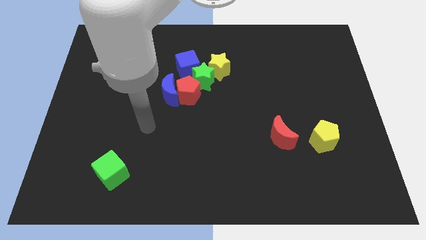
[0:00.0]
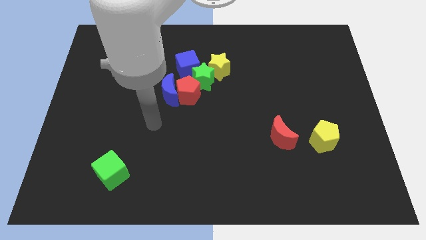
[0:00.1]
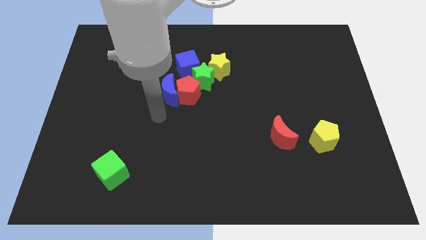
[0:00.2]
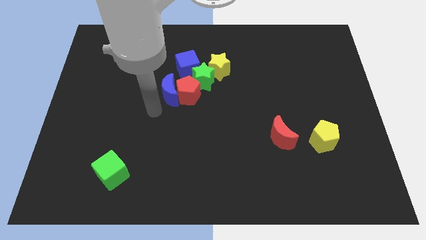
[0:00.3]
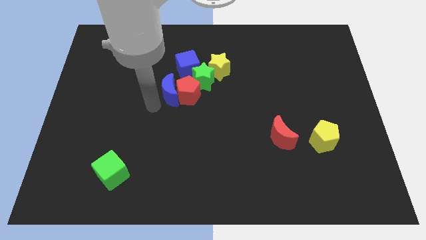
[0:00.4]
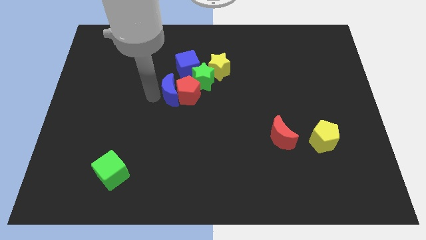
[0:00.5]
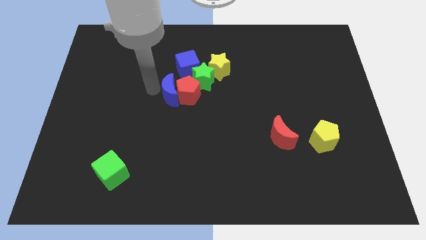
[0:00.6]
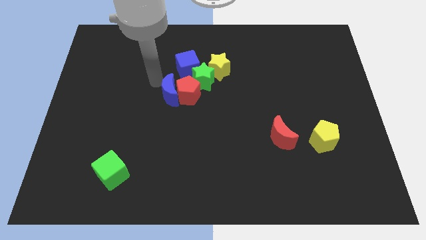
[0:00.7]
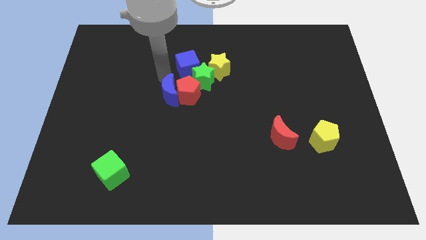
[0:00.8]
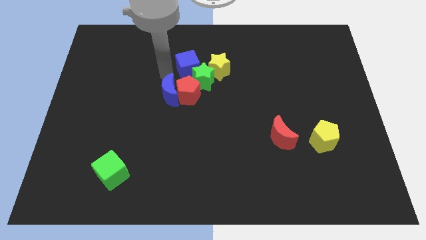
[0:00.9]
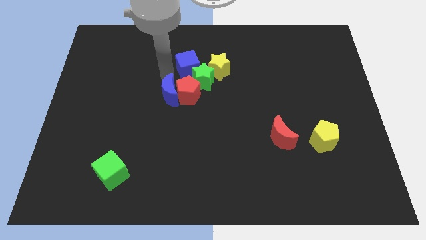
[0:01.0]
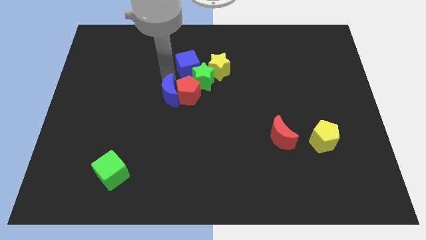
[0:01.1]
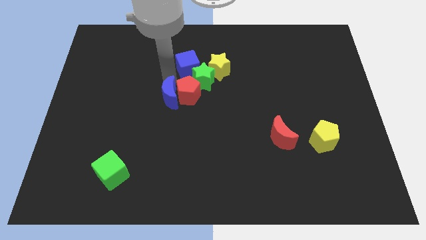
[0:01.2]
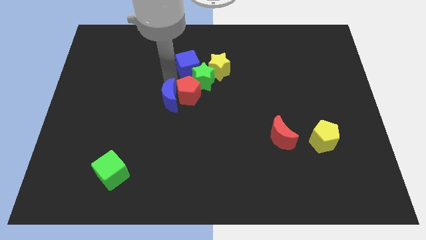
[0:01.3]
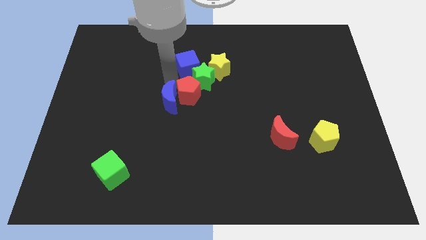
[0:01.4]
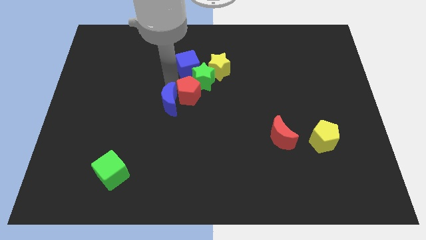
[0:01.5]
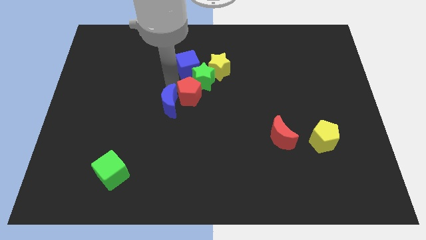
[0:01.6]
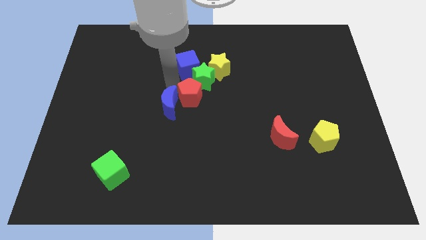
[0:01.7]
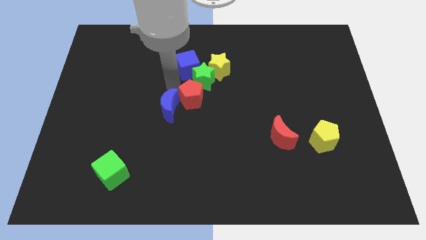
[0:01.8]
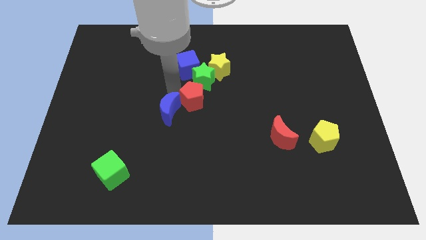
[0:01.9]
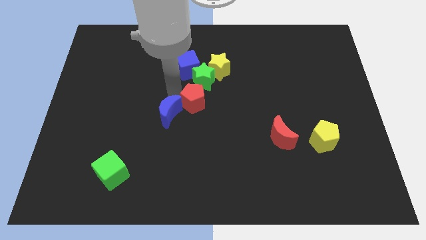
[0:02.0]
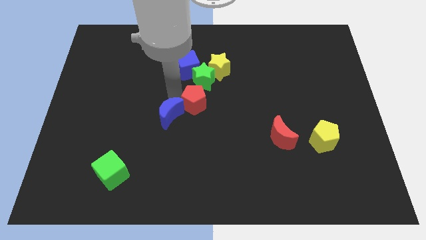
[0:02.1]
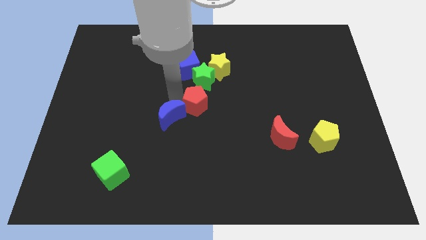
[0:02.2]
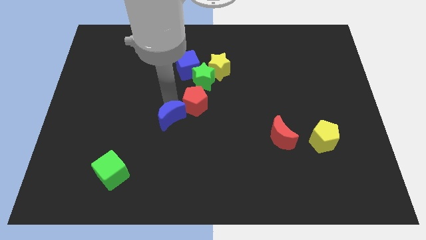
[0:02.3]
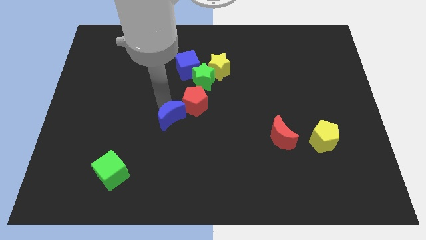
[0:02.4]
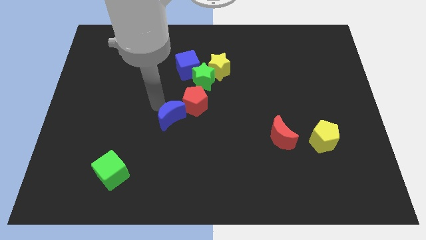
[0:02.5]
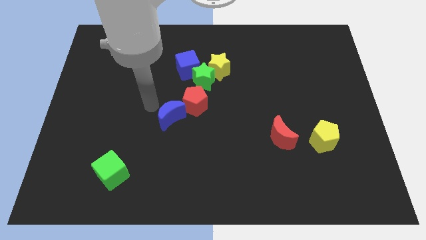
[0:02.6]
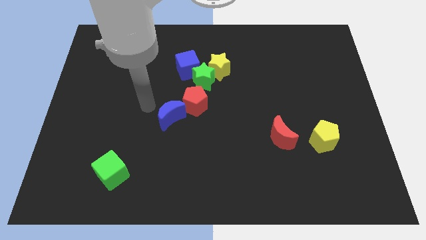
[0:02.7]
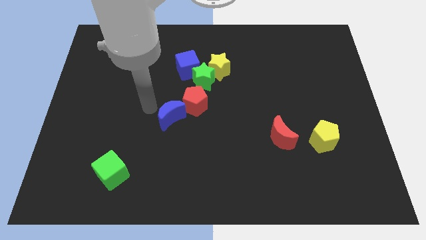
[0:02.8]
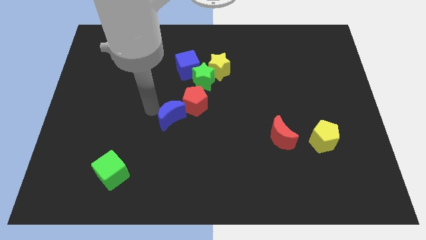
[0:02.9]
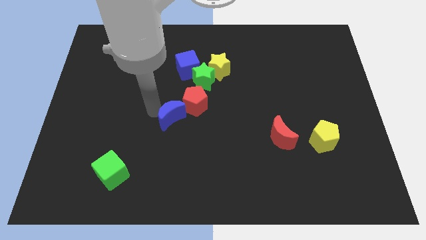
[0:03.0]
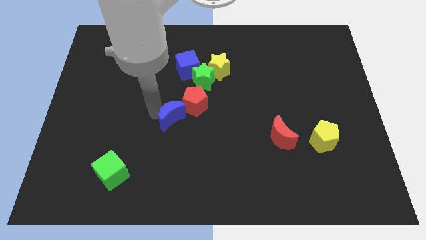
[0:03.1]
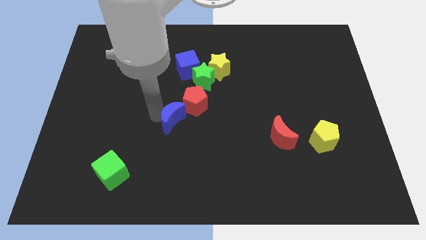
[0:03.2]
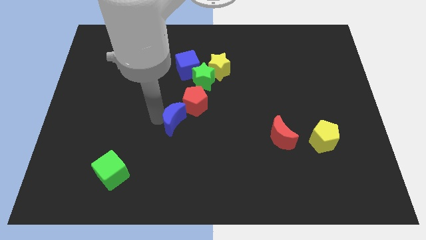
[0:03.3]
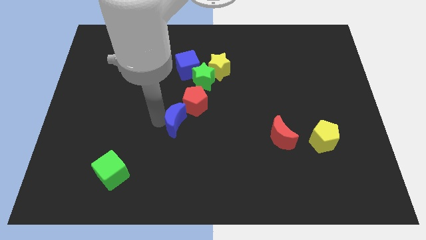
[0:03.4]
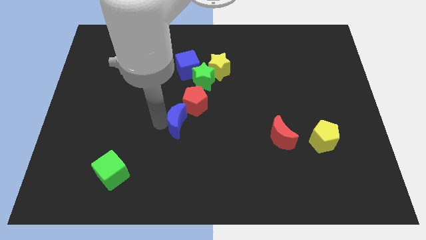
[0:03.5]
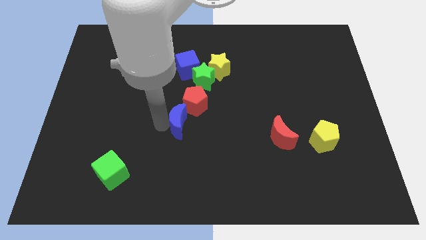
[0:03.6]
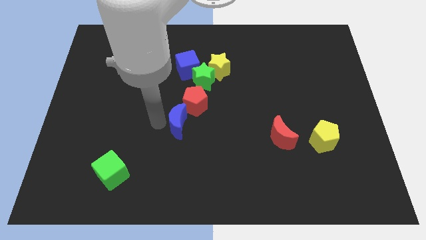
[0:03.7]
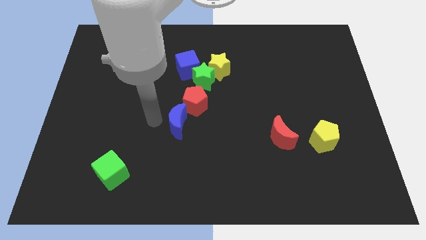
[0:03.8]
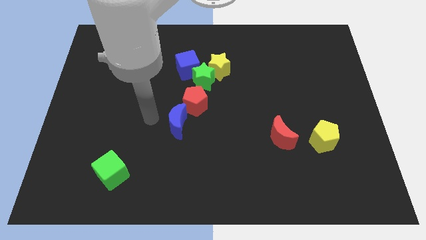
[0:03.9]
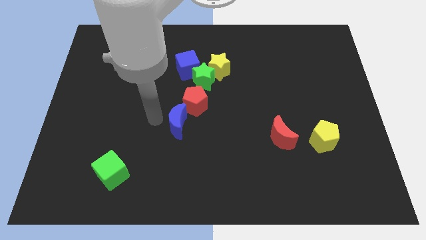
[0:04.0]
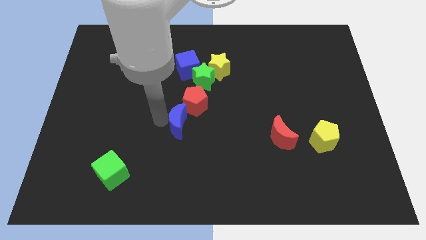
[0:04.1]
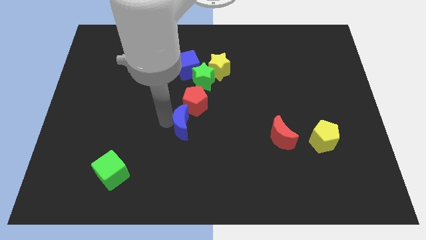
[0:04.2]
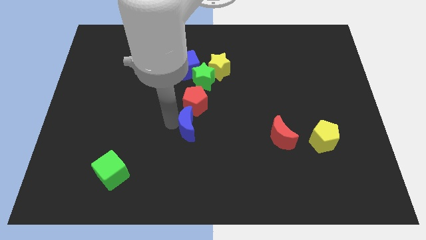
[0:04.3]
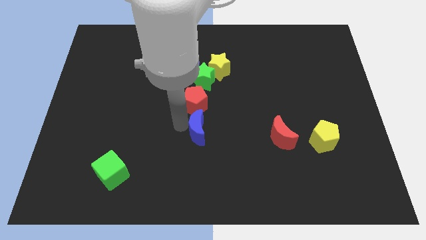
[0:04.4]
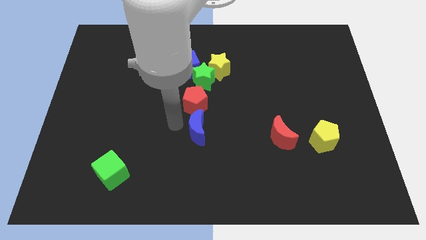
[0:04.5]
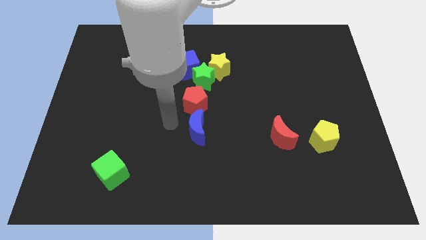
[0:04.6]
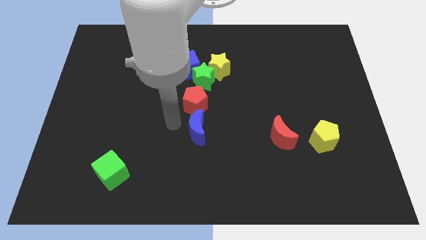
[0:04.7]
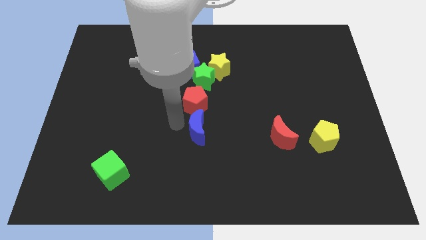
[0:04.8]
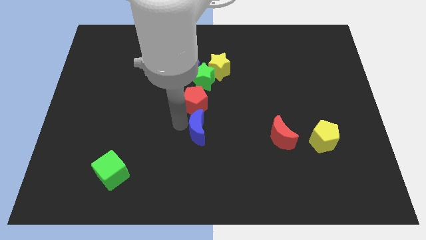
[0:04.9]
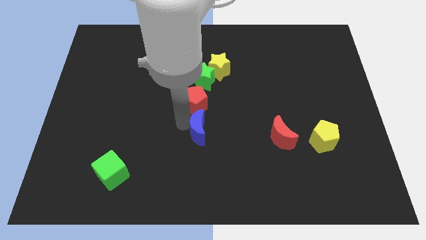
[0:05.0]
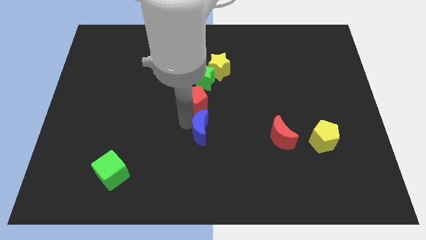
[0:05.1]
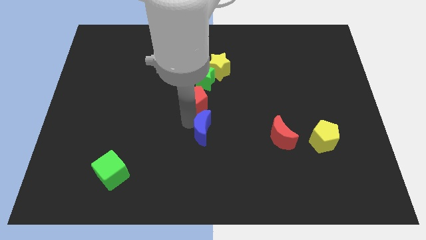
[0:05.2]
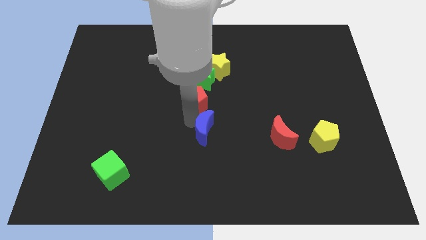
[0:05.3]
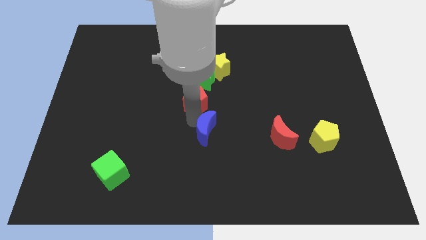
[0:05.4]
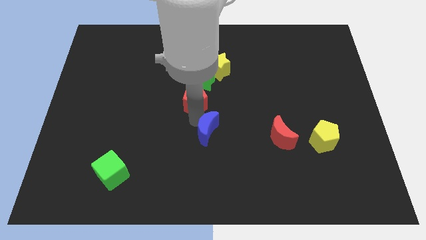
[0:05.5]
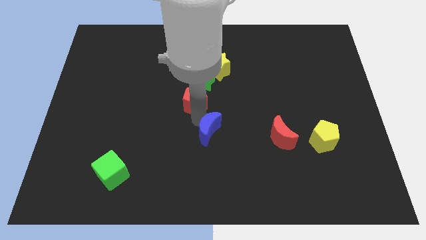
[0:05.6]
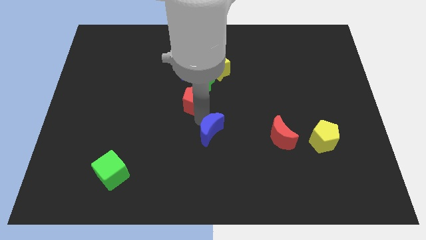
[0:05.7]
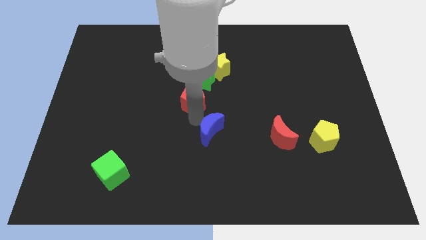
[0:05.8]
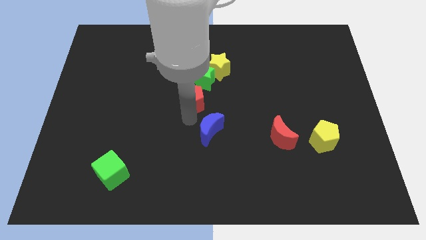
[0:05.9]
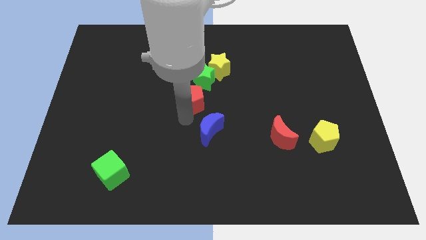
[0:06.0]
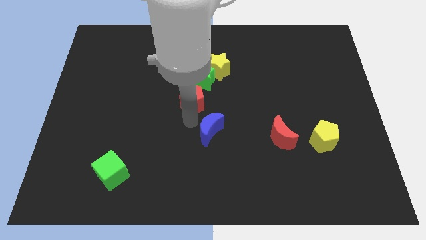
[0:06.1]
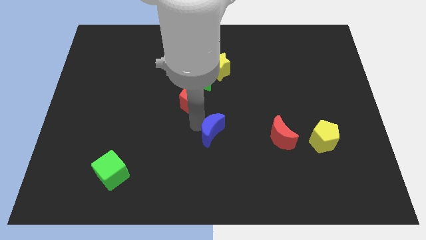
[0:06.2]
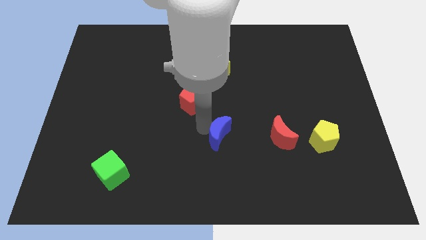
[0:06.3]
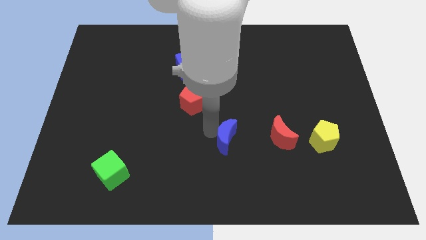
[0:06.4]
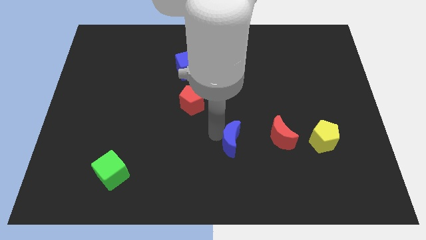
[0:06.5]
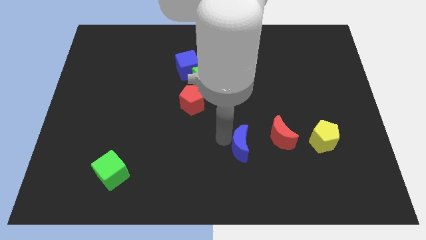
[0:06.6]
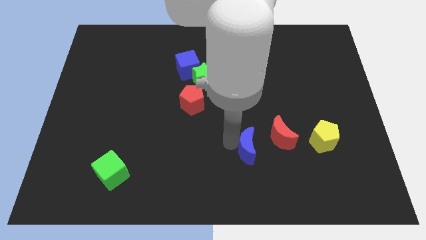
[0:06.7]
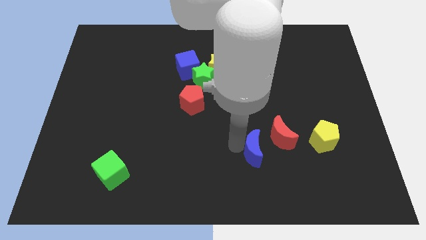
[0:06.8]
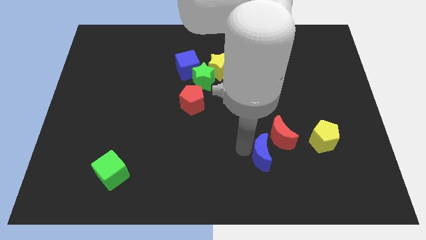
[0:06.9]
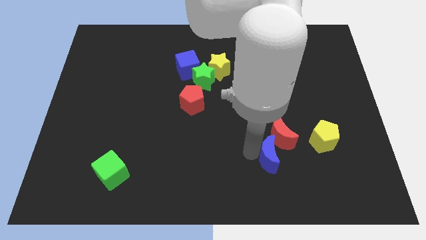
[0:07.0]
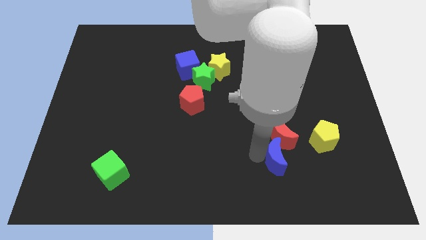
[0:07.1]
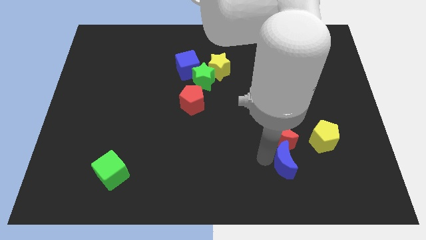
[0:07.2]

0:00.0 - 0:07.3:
push the blue moon diagonally down and to the left of the yellow pentagon

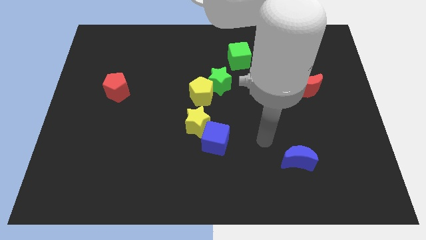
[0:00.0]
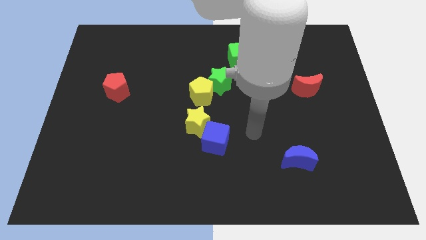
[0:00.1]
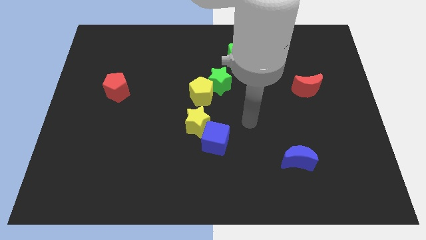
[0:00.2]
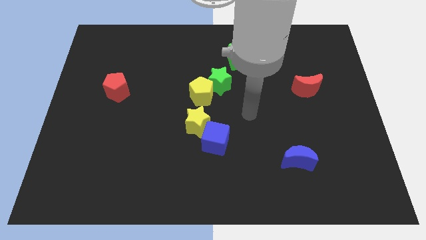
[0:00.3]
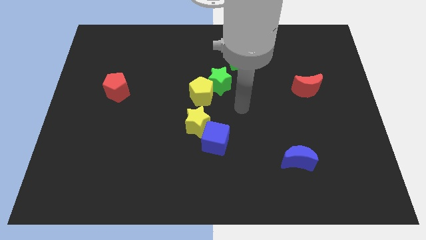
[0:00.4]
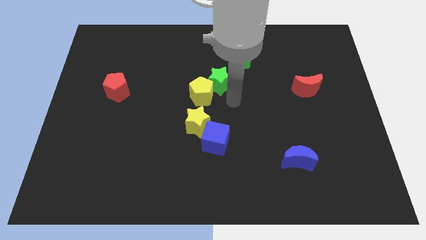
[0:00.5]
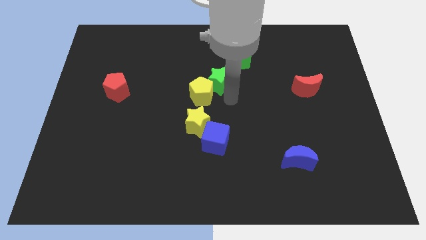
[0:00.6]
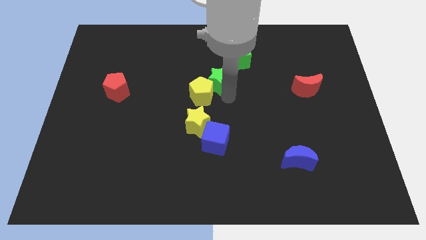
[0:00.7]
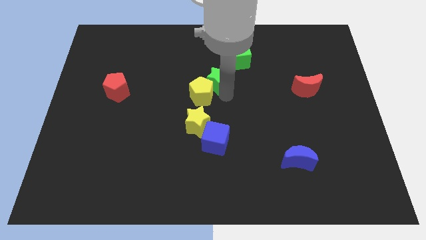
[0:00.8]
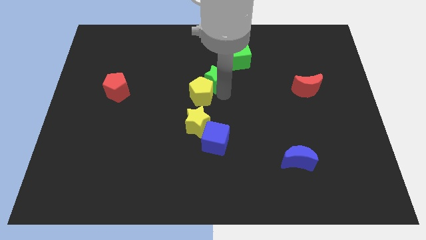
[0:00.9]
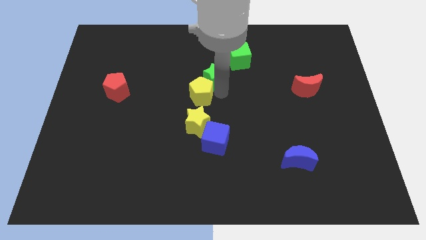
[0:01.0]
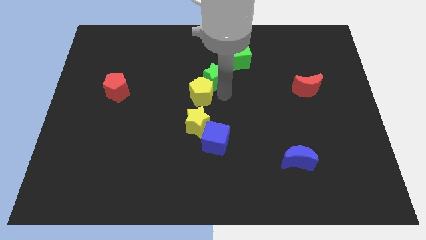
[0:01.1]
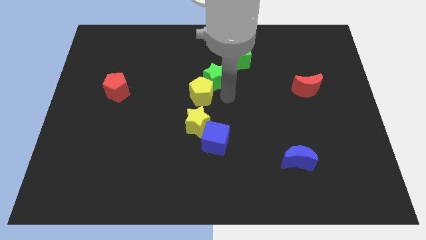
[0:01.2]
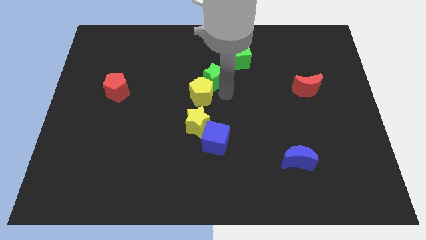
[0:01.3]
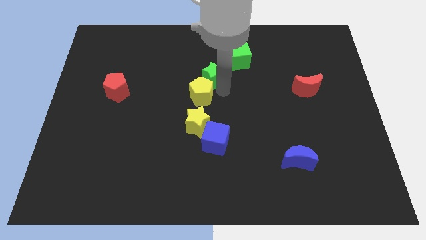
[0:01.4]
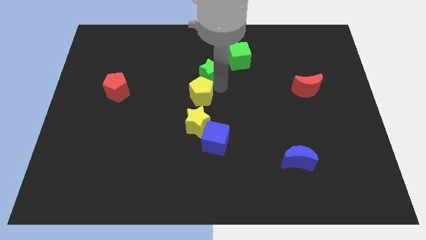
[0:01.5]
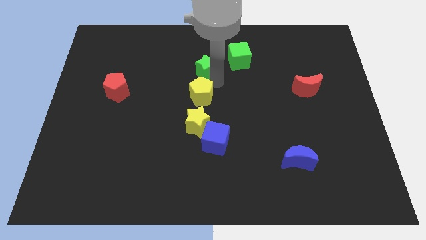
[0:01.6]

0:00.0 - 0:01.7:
put the green star to the left side of the green cube
